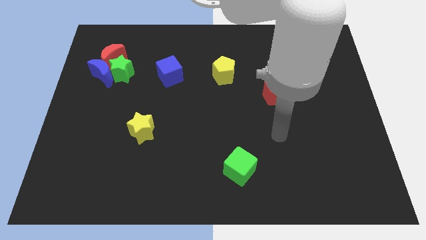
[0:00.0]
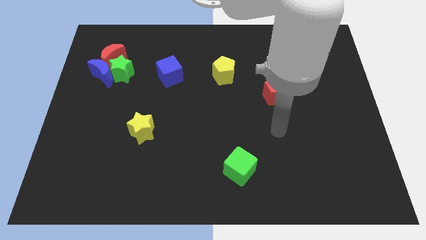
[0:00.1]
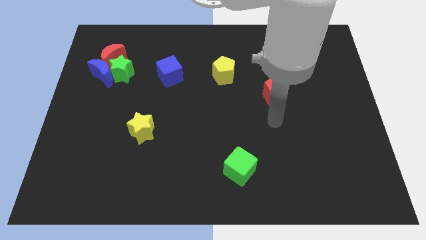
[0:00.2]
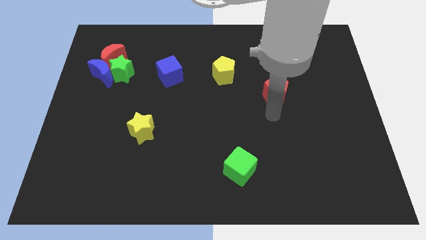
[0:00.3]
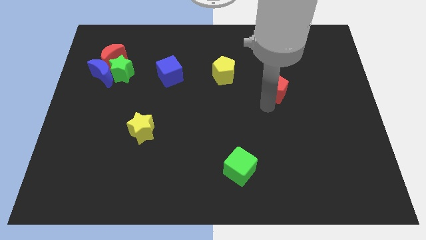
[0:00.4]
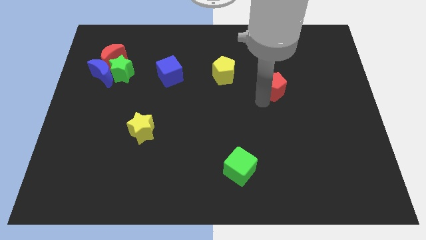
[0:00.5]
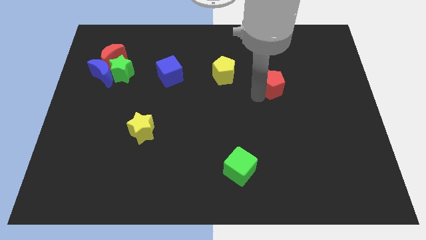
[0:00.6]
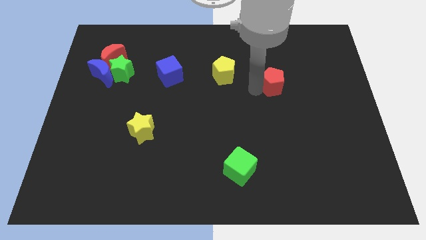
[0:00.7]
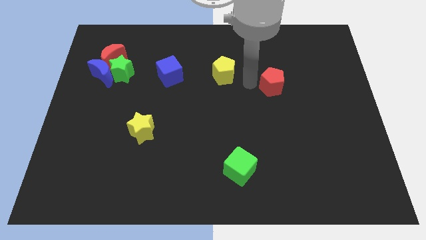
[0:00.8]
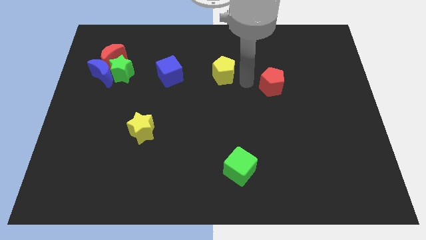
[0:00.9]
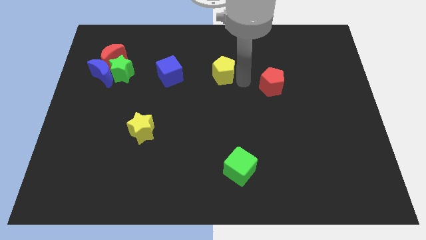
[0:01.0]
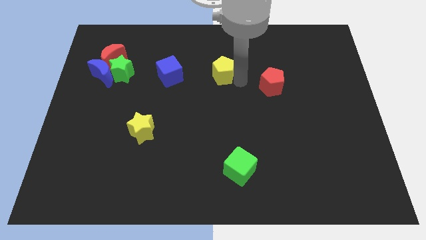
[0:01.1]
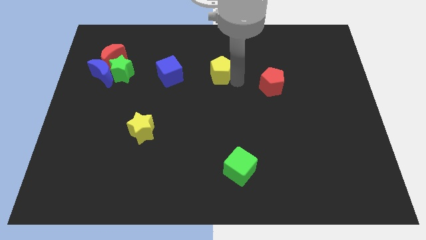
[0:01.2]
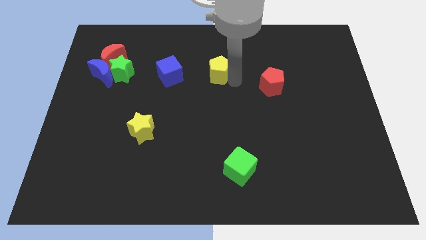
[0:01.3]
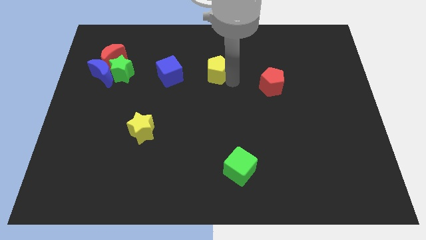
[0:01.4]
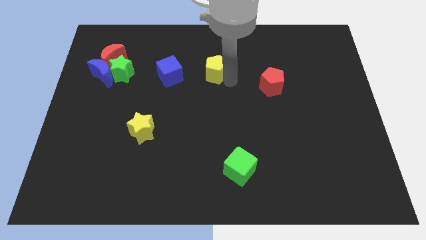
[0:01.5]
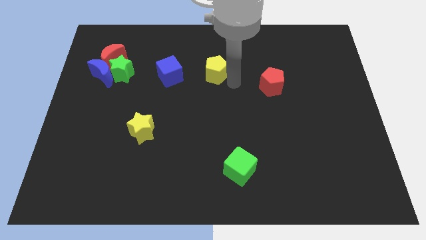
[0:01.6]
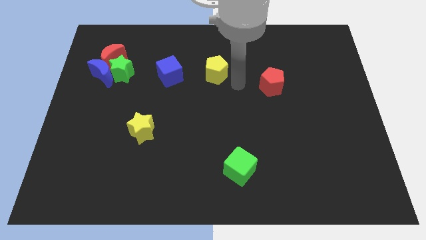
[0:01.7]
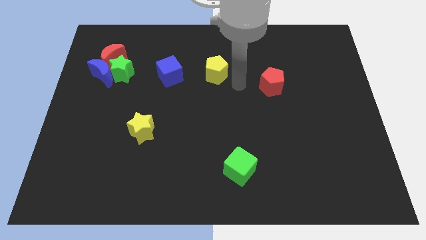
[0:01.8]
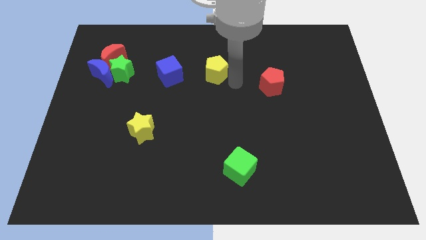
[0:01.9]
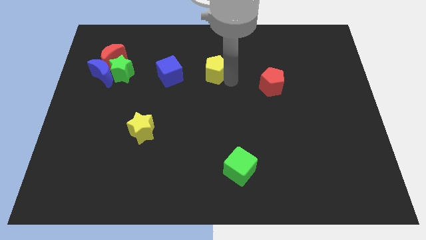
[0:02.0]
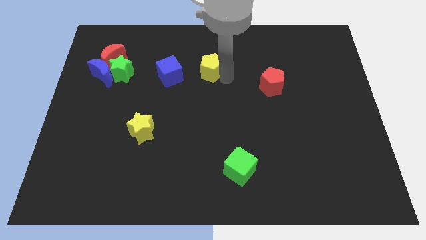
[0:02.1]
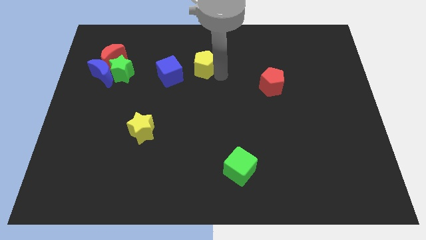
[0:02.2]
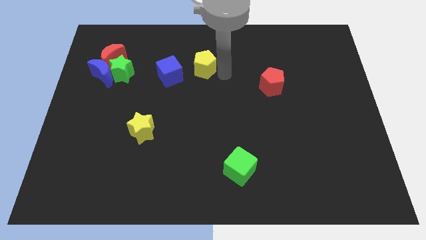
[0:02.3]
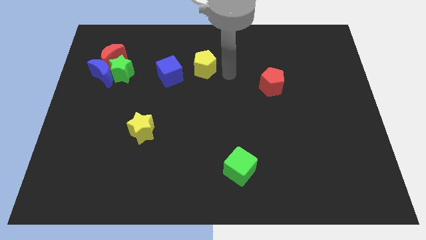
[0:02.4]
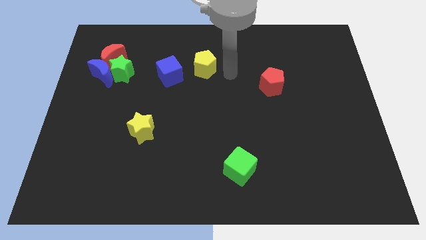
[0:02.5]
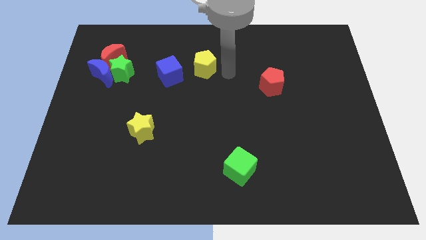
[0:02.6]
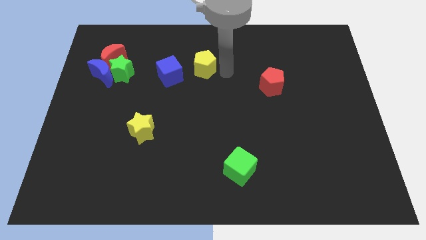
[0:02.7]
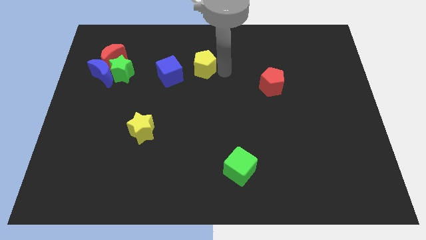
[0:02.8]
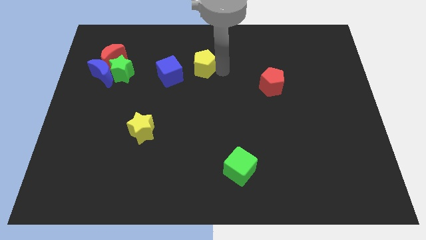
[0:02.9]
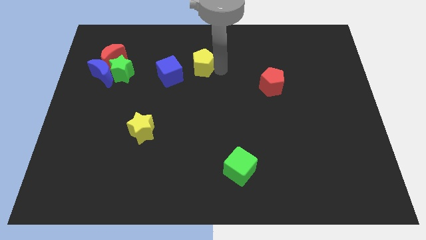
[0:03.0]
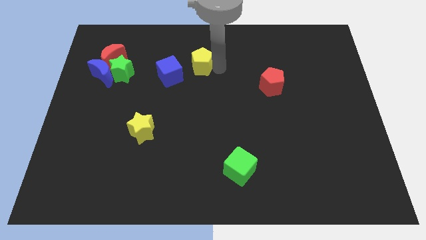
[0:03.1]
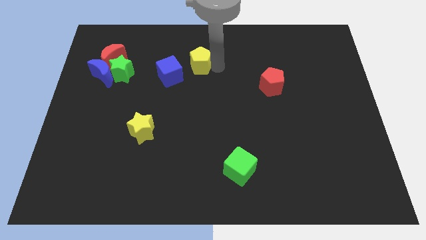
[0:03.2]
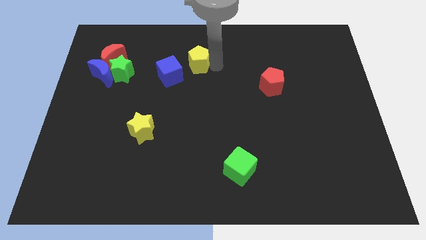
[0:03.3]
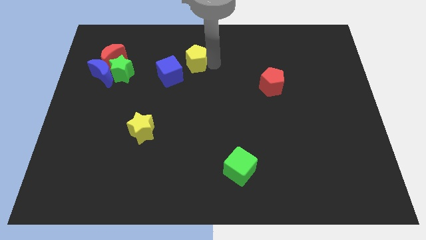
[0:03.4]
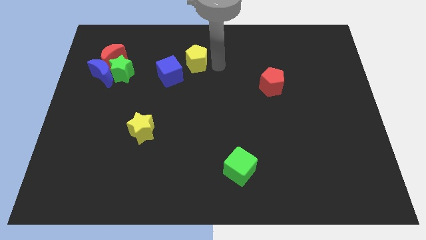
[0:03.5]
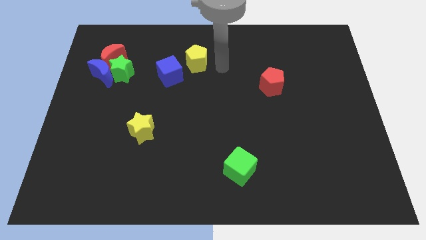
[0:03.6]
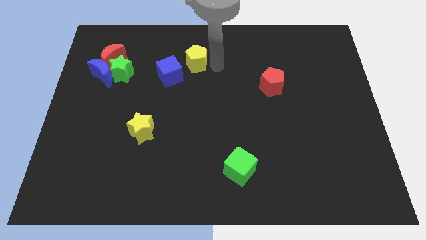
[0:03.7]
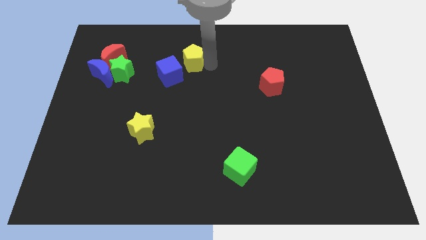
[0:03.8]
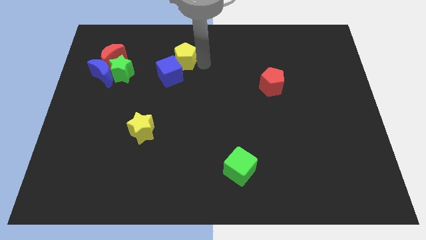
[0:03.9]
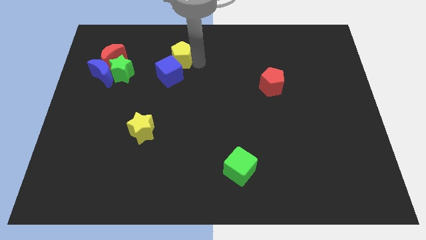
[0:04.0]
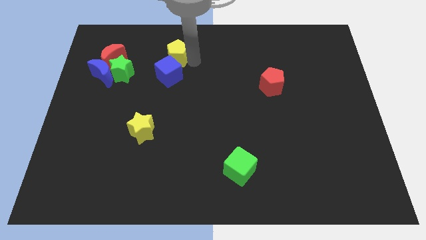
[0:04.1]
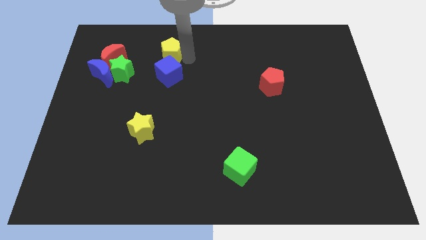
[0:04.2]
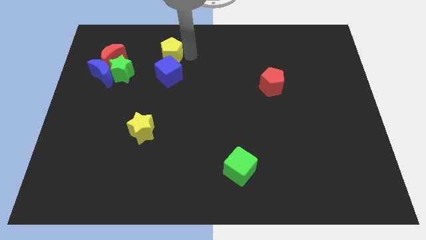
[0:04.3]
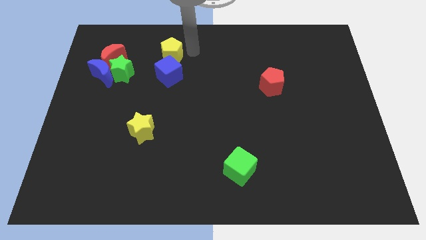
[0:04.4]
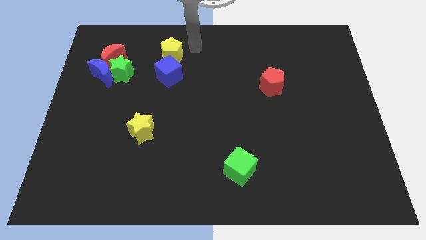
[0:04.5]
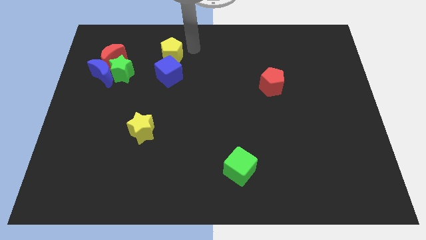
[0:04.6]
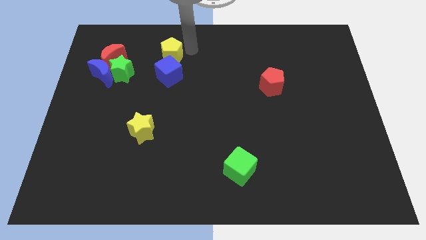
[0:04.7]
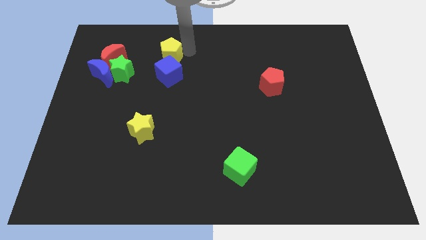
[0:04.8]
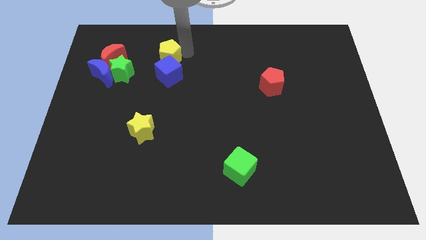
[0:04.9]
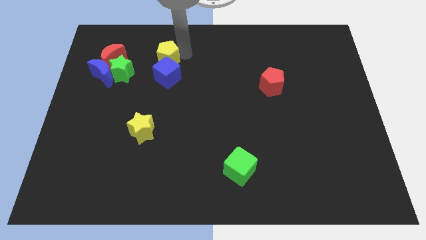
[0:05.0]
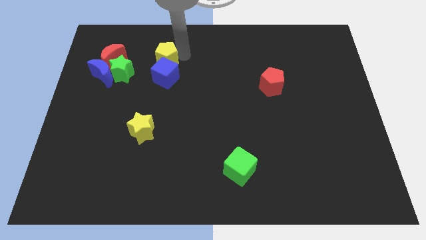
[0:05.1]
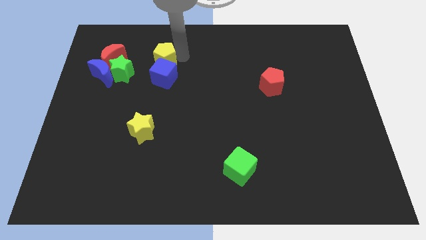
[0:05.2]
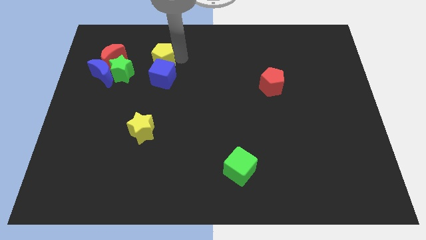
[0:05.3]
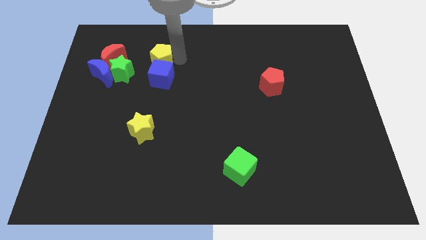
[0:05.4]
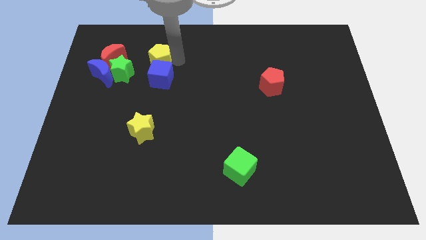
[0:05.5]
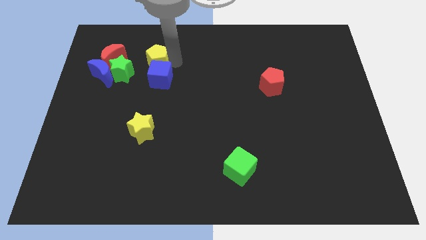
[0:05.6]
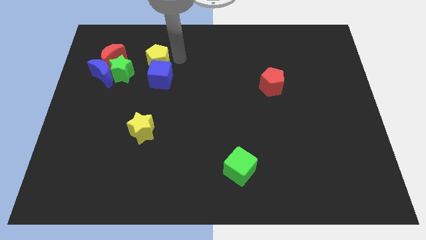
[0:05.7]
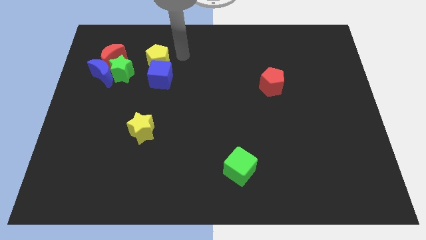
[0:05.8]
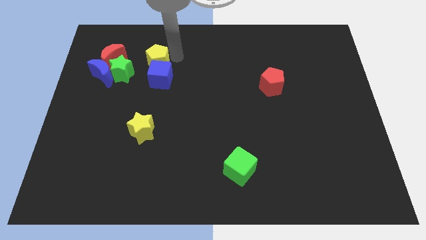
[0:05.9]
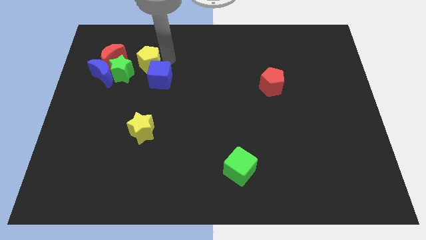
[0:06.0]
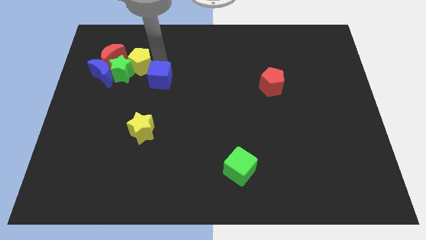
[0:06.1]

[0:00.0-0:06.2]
push the yellow pentagon to the green star

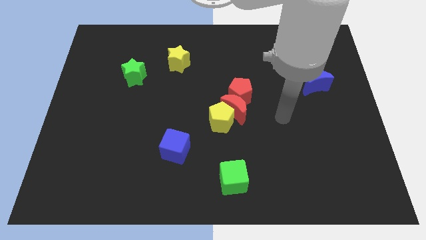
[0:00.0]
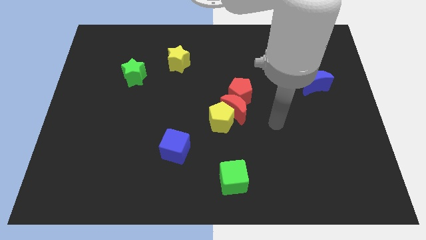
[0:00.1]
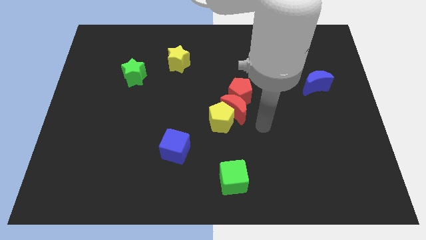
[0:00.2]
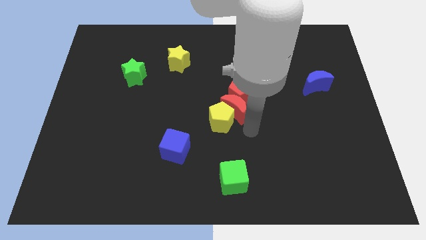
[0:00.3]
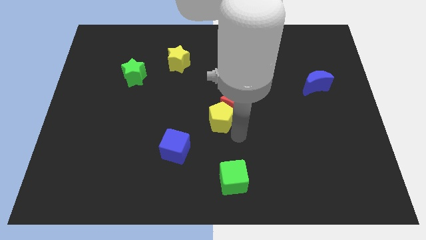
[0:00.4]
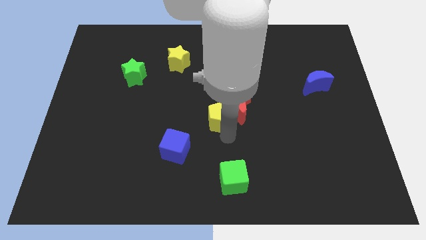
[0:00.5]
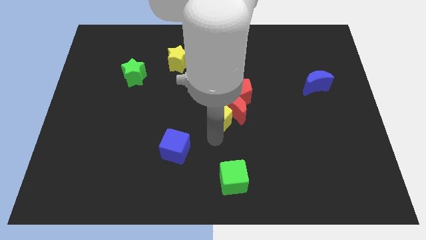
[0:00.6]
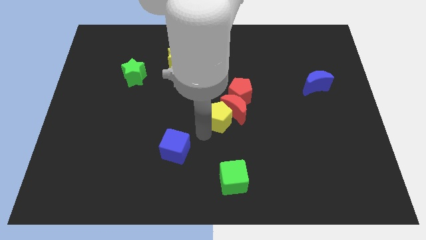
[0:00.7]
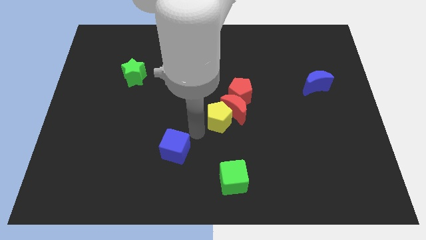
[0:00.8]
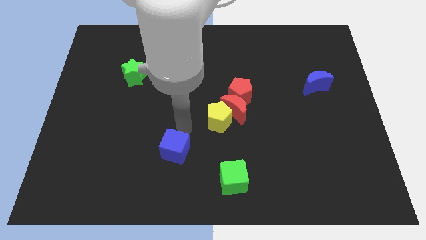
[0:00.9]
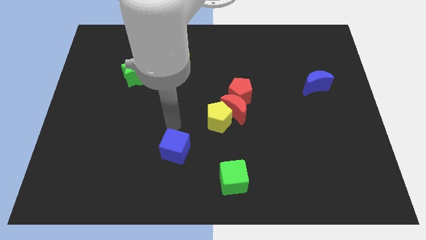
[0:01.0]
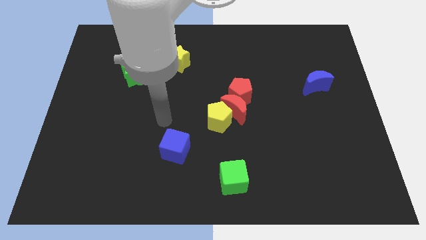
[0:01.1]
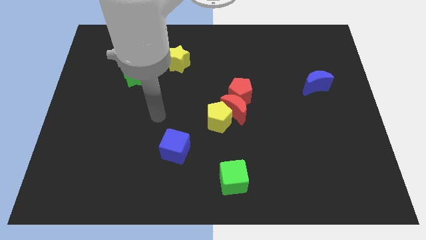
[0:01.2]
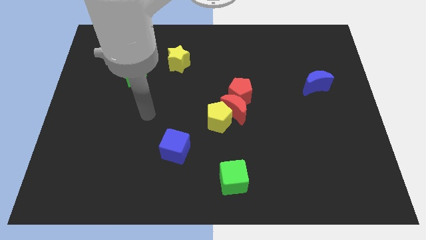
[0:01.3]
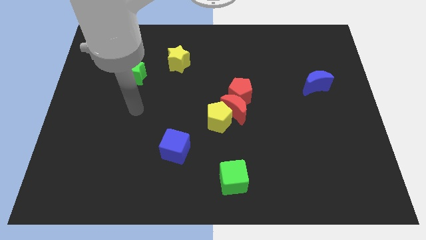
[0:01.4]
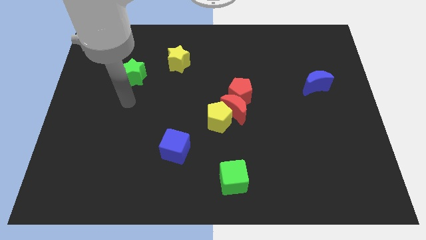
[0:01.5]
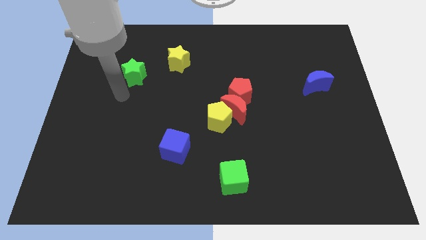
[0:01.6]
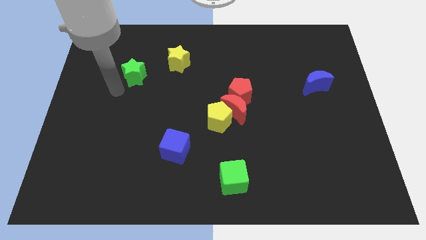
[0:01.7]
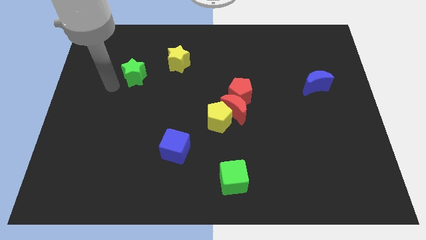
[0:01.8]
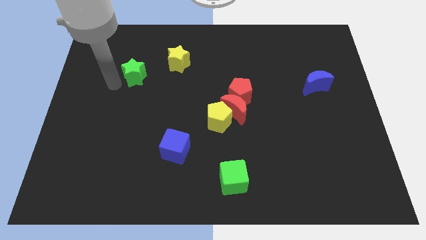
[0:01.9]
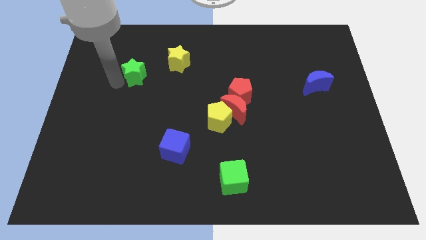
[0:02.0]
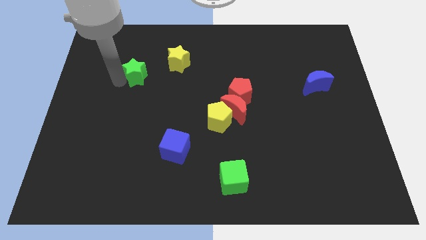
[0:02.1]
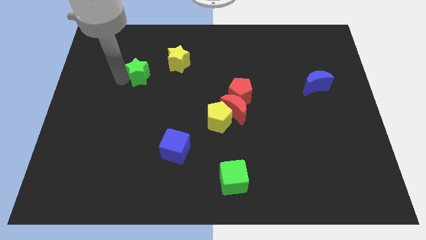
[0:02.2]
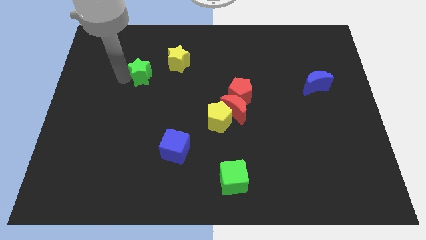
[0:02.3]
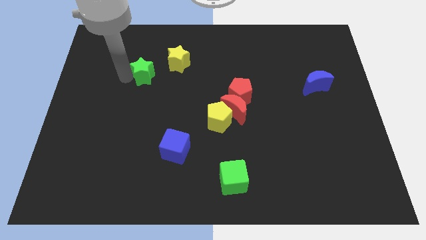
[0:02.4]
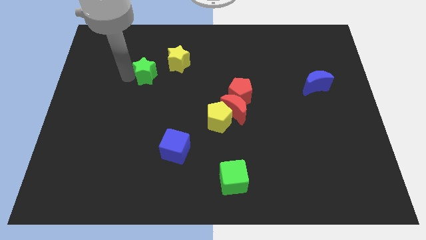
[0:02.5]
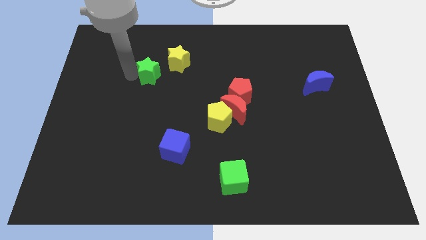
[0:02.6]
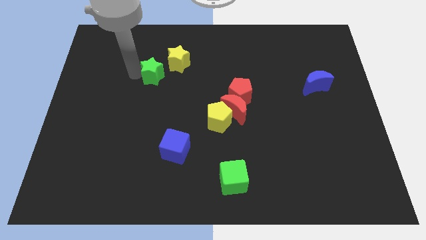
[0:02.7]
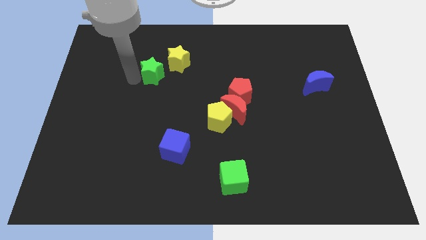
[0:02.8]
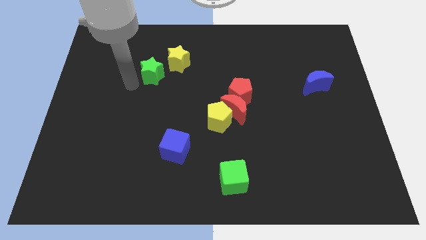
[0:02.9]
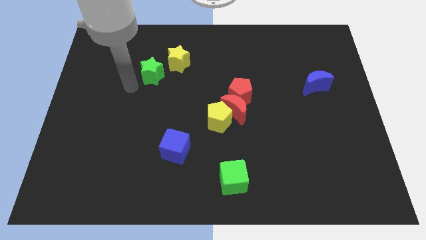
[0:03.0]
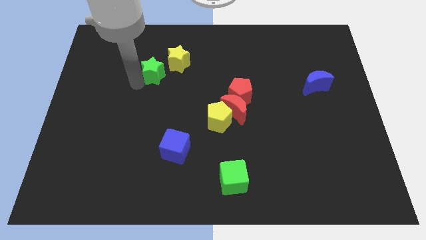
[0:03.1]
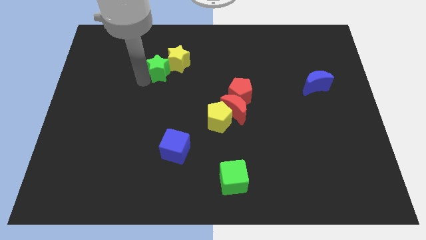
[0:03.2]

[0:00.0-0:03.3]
move the green star to the yellow star
